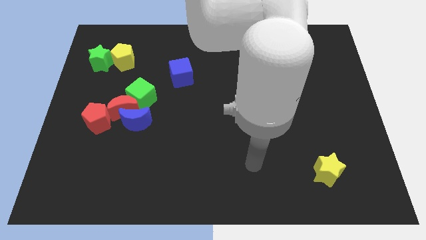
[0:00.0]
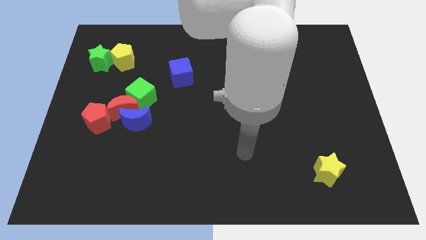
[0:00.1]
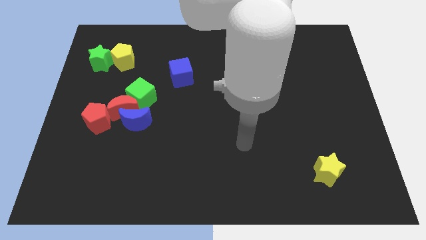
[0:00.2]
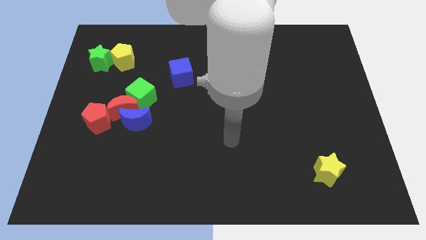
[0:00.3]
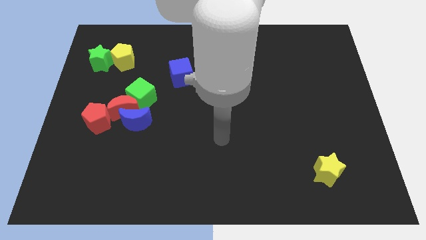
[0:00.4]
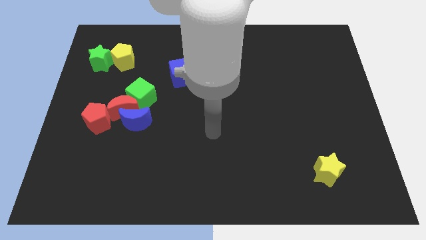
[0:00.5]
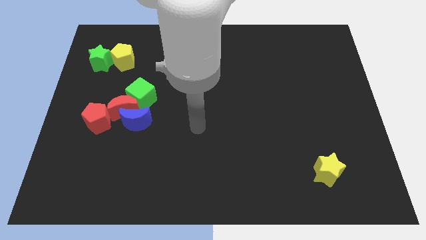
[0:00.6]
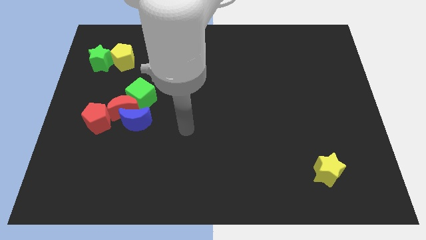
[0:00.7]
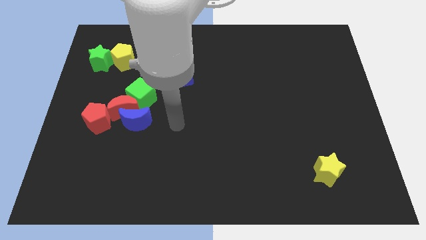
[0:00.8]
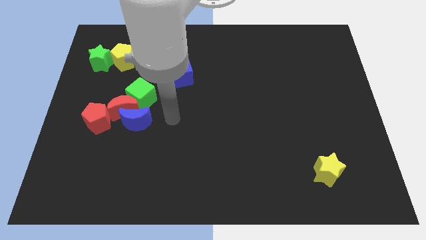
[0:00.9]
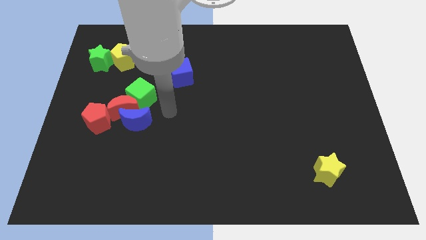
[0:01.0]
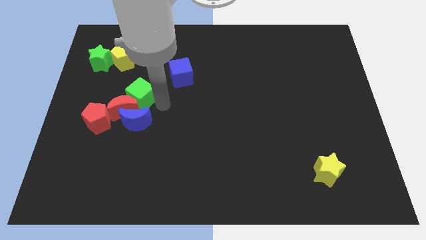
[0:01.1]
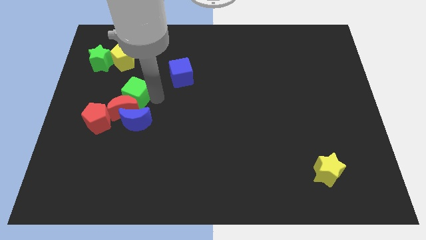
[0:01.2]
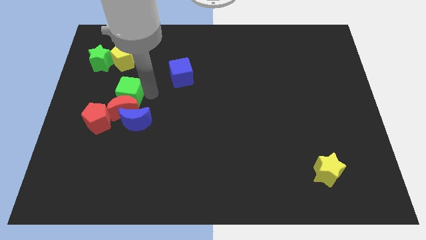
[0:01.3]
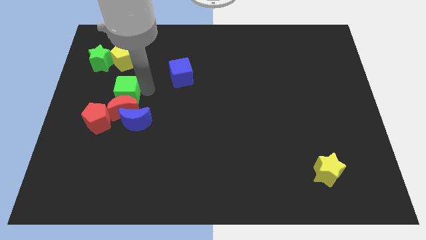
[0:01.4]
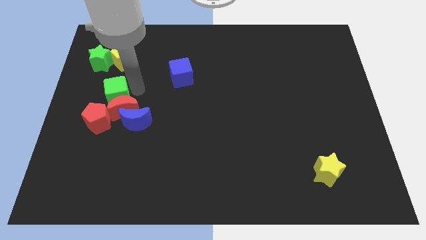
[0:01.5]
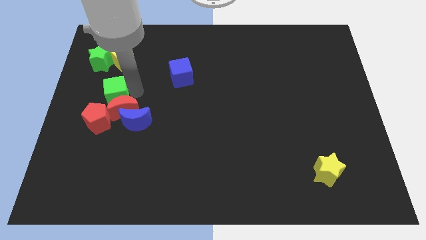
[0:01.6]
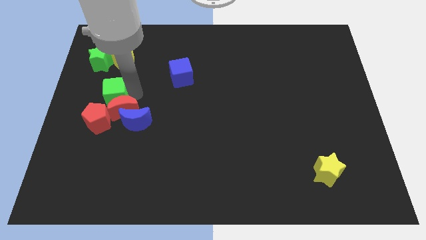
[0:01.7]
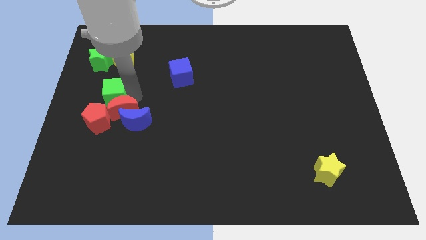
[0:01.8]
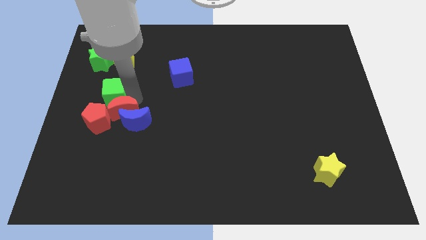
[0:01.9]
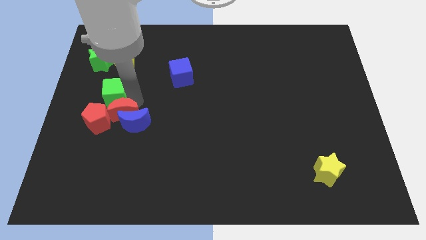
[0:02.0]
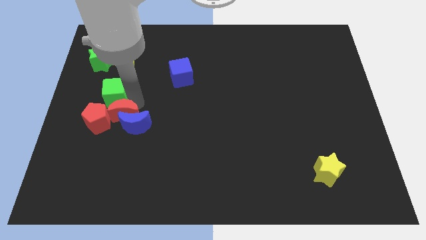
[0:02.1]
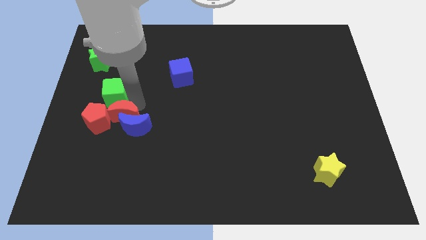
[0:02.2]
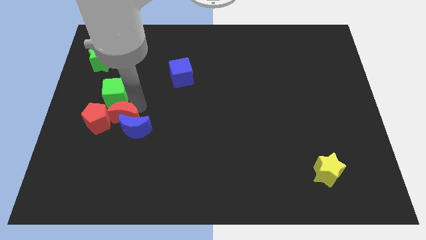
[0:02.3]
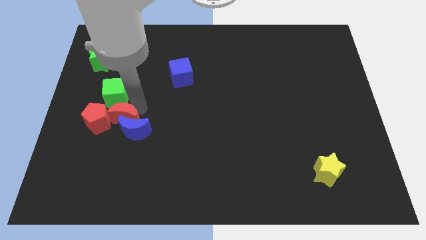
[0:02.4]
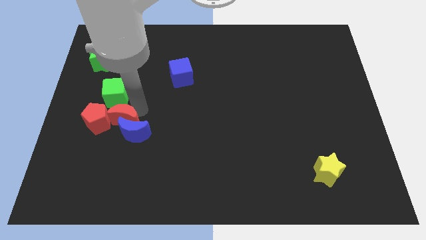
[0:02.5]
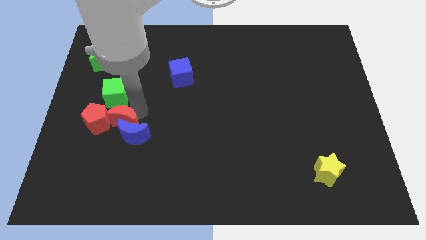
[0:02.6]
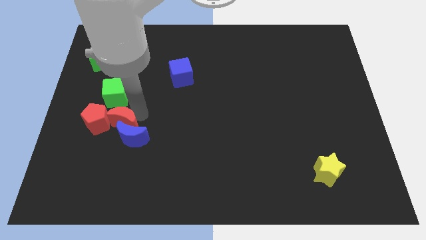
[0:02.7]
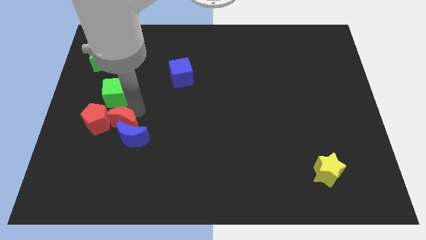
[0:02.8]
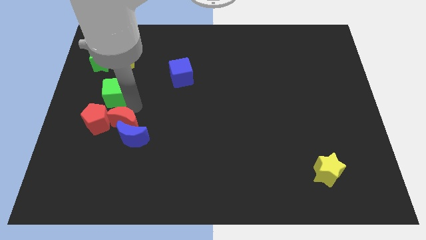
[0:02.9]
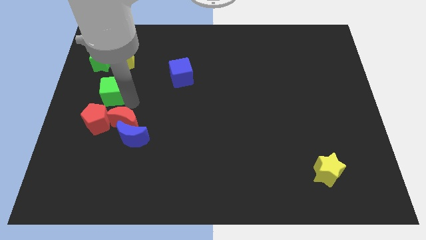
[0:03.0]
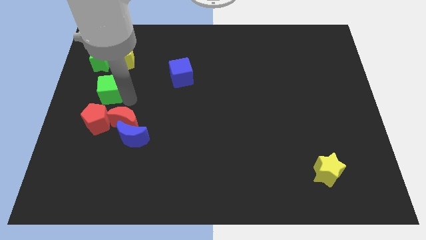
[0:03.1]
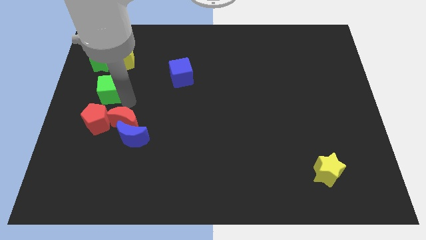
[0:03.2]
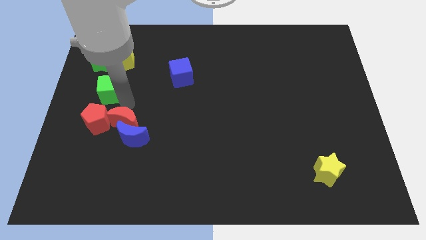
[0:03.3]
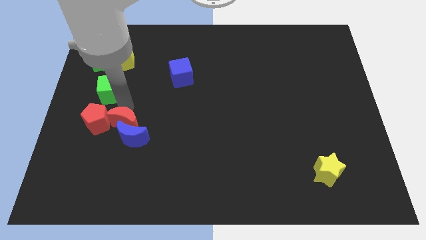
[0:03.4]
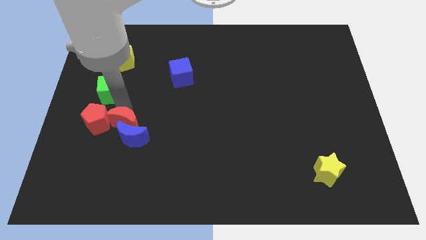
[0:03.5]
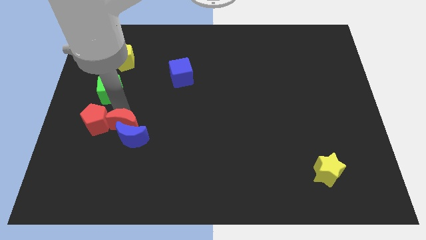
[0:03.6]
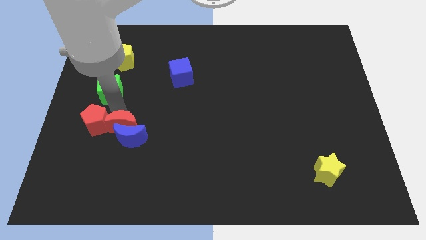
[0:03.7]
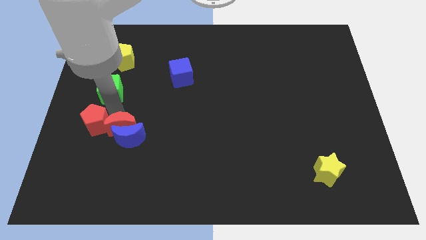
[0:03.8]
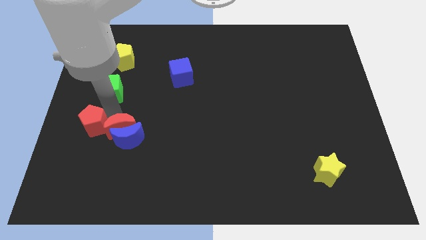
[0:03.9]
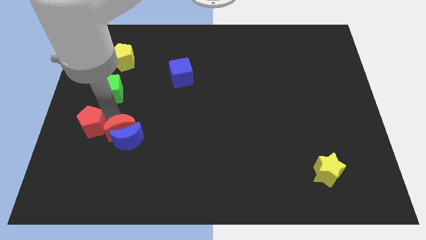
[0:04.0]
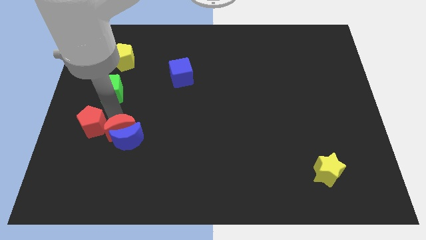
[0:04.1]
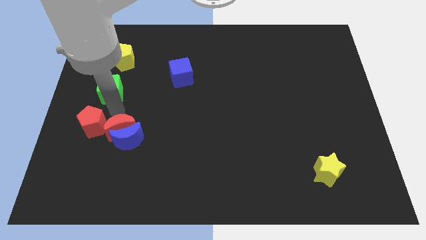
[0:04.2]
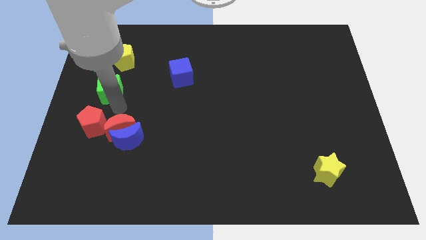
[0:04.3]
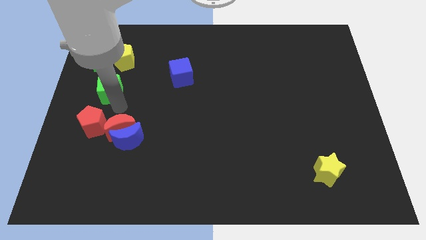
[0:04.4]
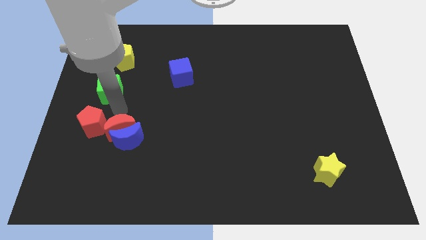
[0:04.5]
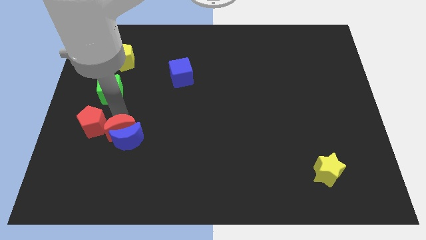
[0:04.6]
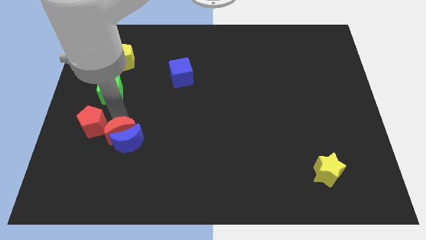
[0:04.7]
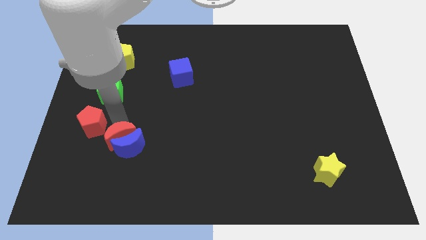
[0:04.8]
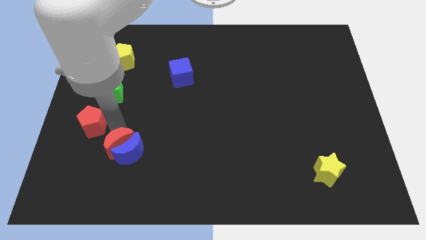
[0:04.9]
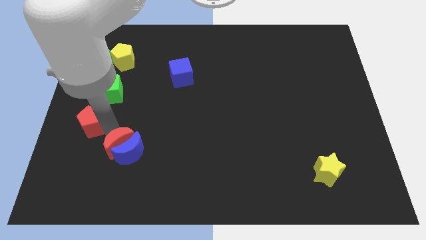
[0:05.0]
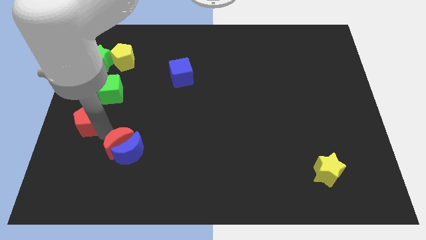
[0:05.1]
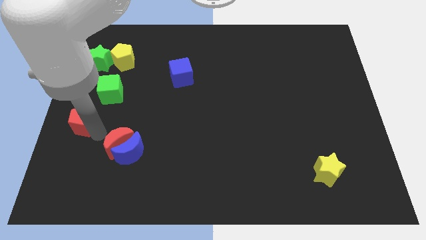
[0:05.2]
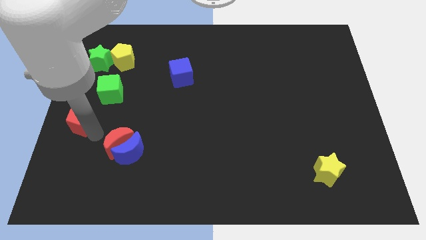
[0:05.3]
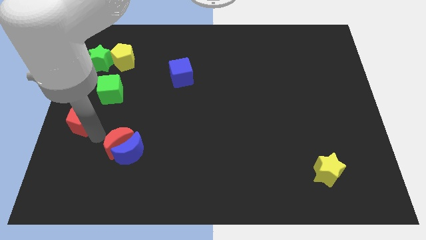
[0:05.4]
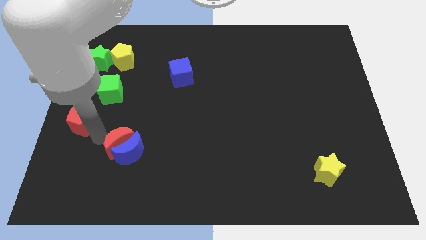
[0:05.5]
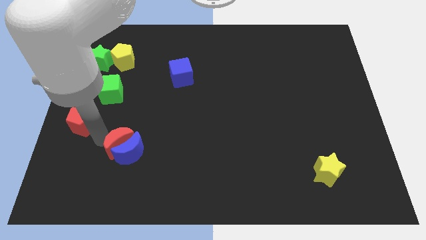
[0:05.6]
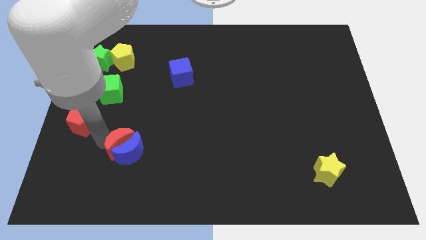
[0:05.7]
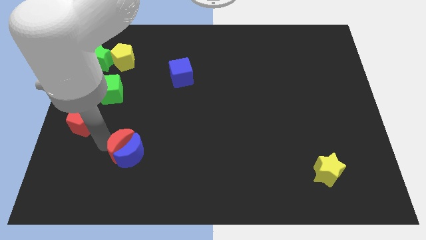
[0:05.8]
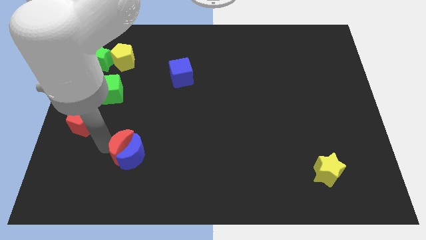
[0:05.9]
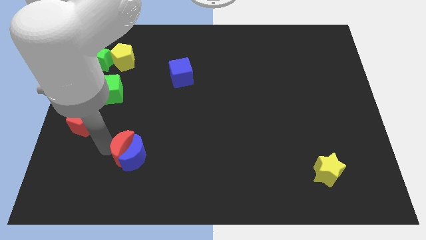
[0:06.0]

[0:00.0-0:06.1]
slide the red moon down and to the right a little bit

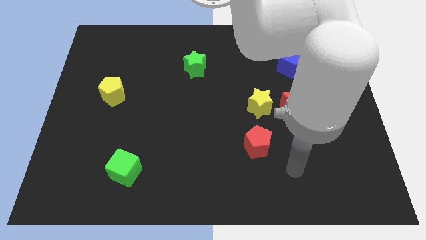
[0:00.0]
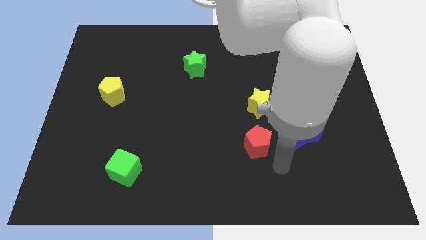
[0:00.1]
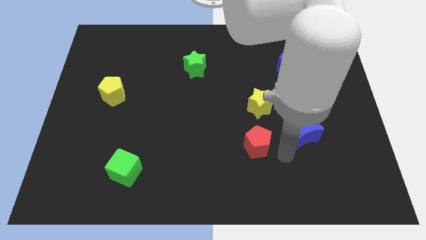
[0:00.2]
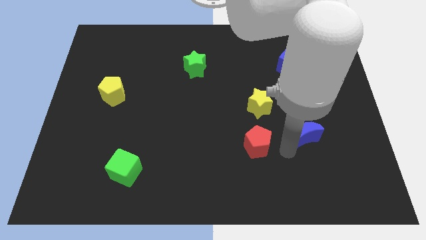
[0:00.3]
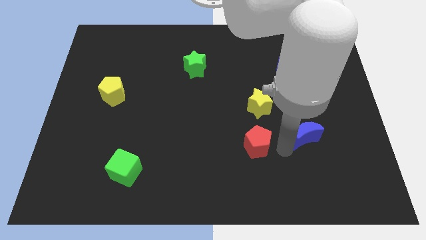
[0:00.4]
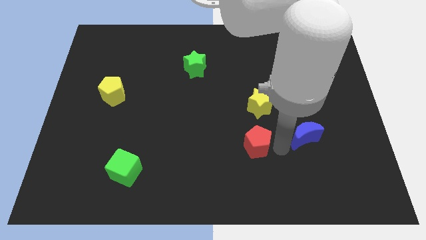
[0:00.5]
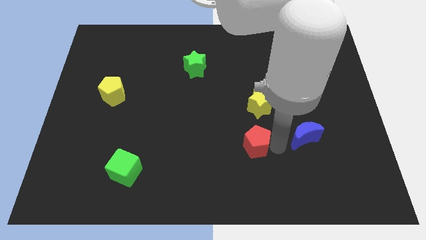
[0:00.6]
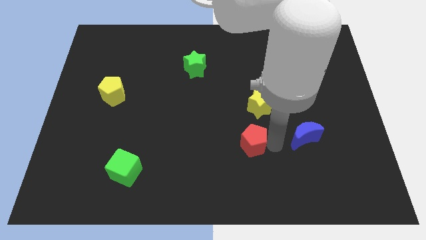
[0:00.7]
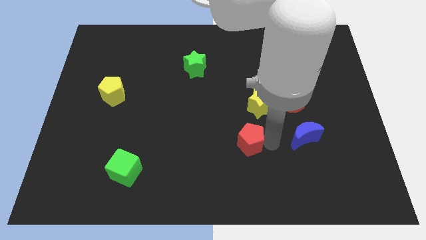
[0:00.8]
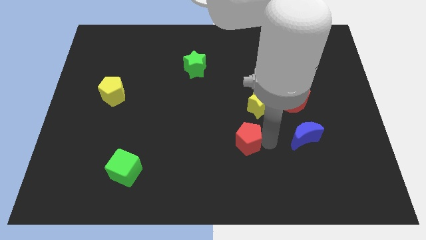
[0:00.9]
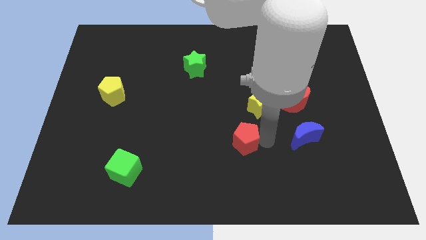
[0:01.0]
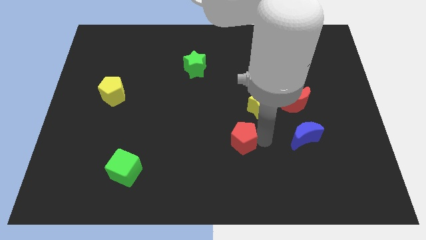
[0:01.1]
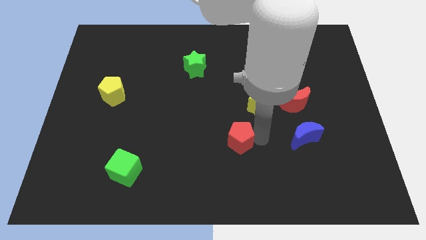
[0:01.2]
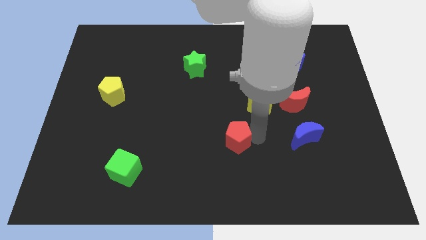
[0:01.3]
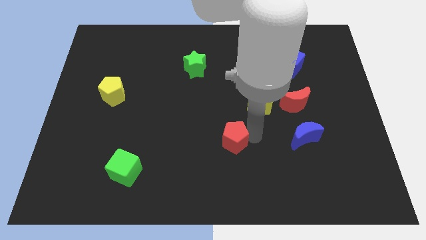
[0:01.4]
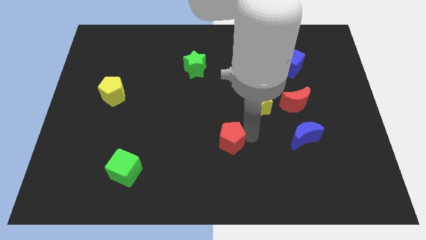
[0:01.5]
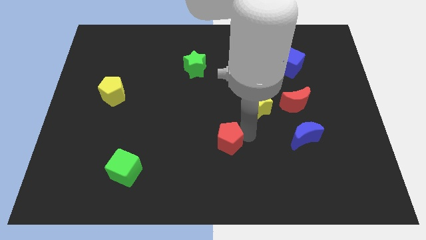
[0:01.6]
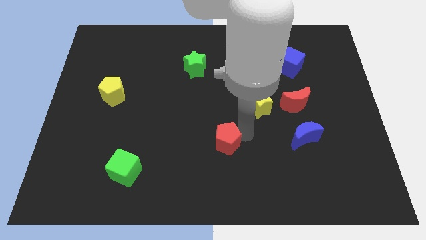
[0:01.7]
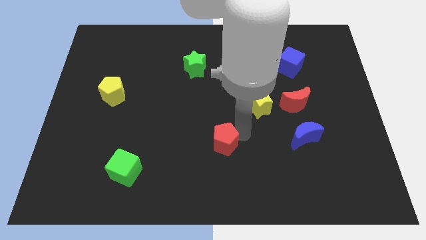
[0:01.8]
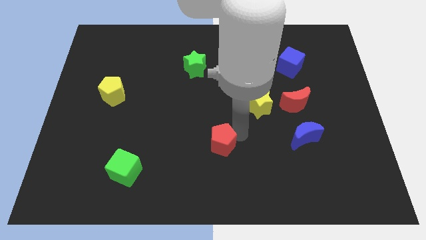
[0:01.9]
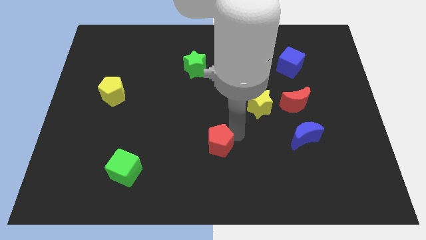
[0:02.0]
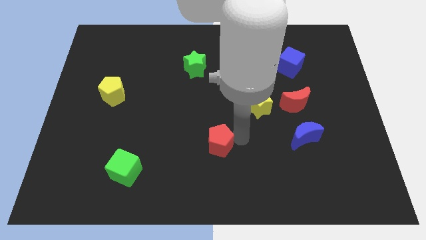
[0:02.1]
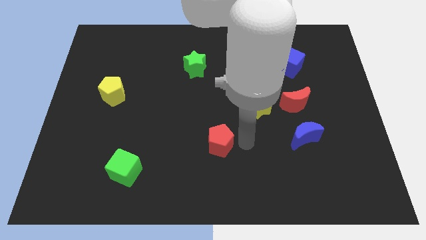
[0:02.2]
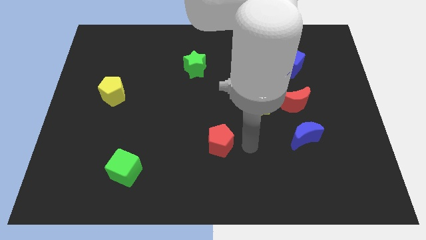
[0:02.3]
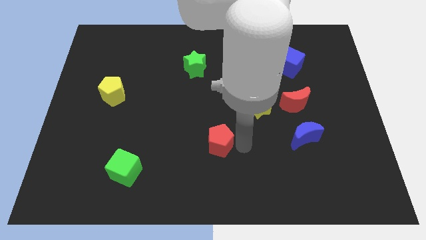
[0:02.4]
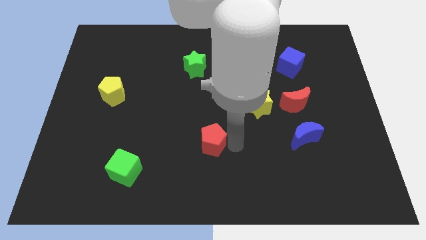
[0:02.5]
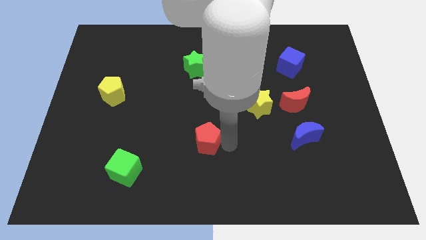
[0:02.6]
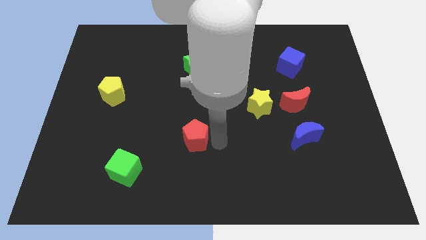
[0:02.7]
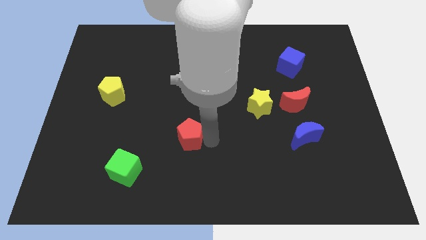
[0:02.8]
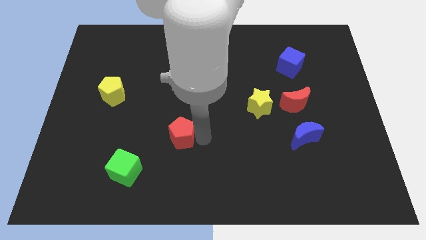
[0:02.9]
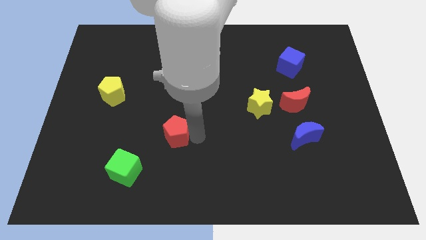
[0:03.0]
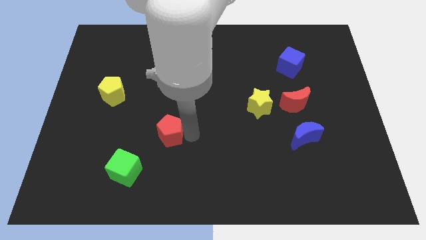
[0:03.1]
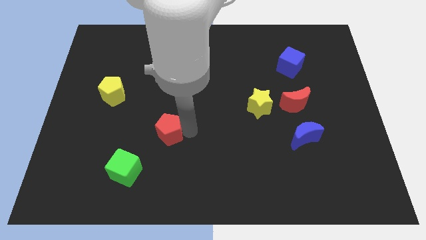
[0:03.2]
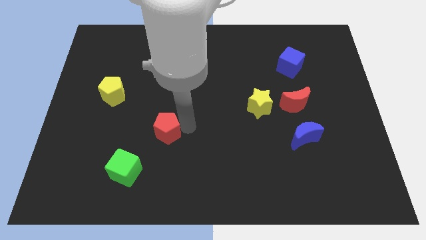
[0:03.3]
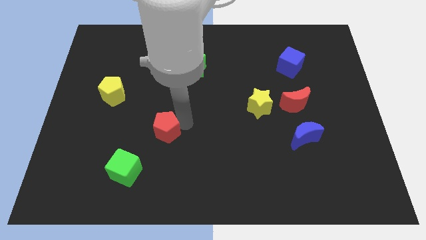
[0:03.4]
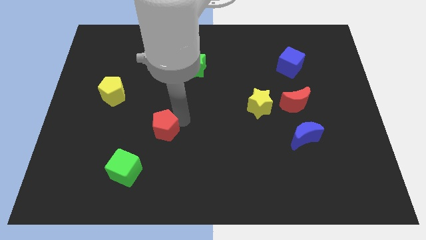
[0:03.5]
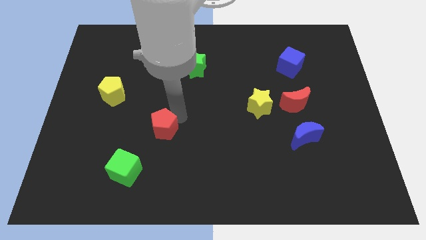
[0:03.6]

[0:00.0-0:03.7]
move the red pentagon left
